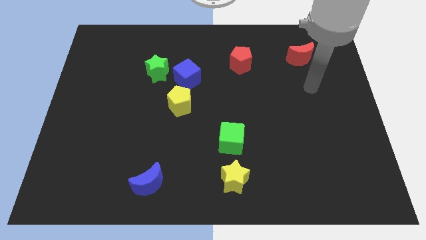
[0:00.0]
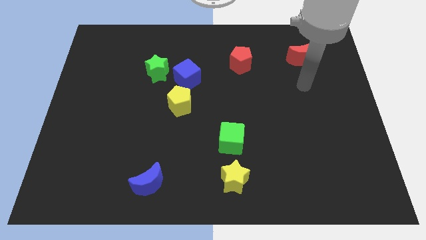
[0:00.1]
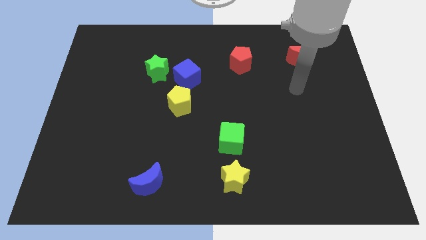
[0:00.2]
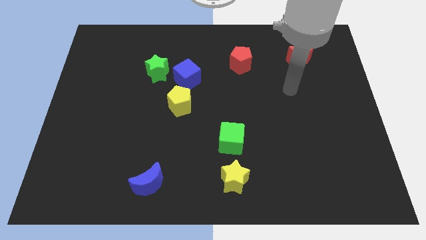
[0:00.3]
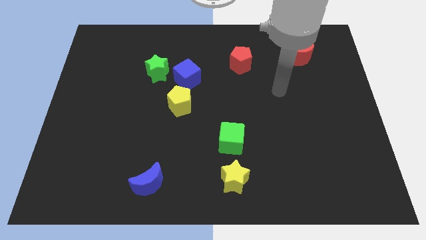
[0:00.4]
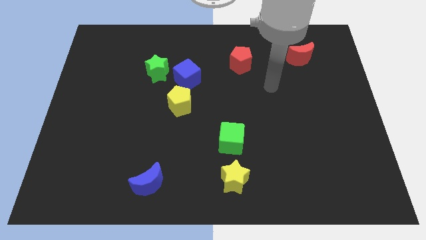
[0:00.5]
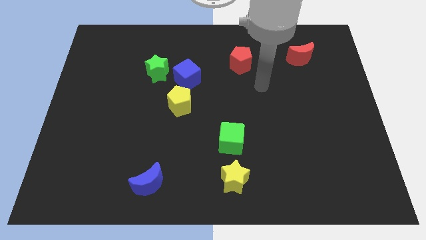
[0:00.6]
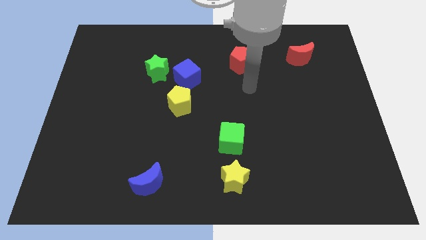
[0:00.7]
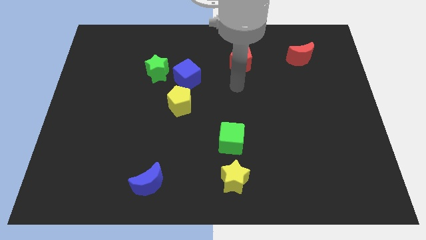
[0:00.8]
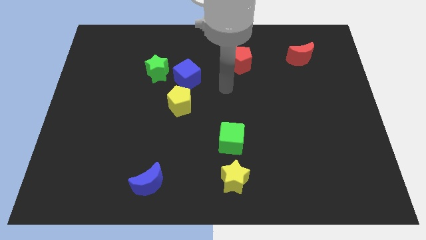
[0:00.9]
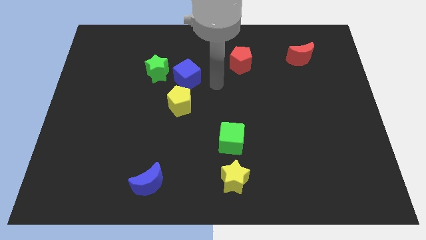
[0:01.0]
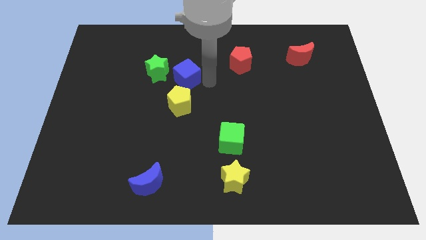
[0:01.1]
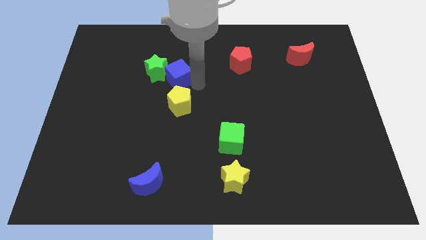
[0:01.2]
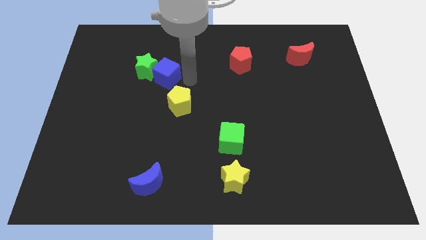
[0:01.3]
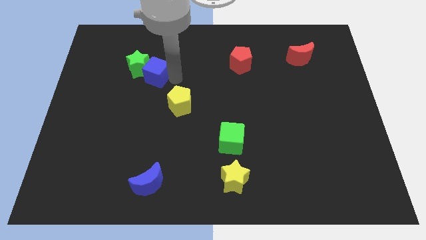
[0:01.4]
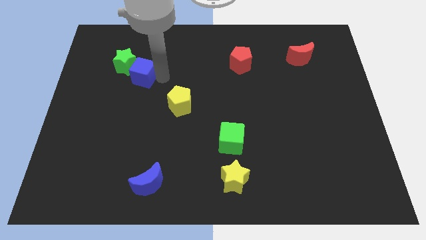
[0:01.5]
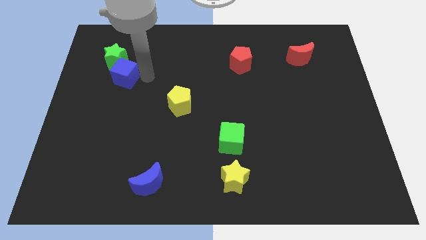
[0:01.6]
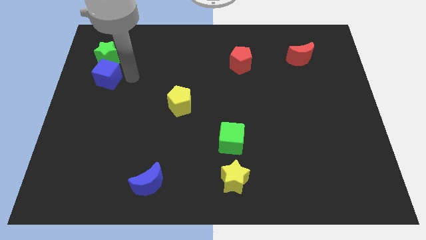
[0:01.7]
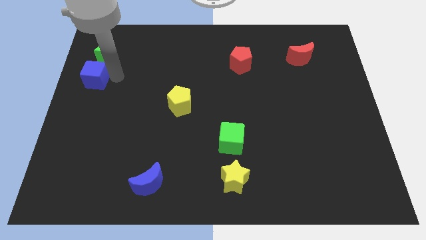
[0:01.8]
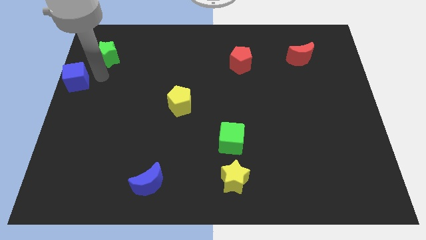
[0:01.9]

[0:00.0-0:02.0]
move the green star away from the blue cube

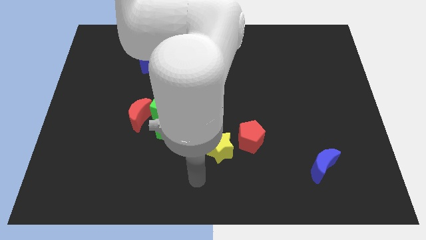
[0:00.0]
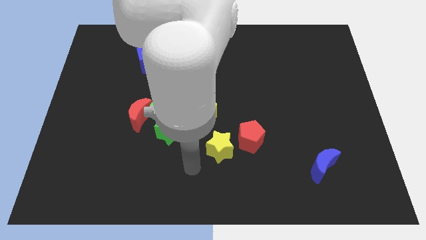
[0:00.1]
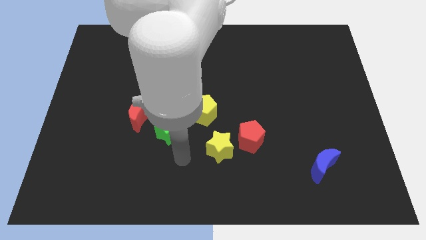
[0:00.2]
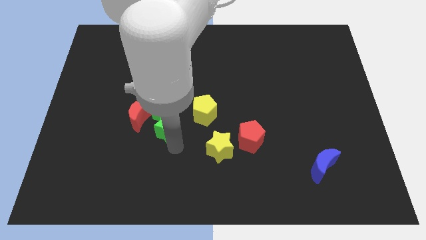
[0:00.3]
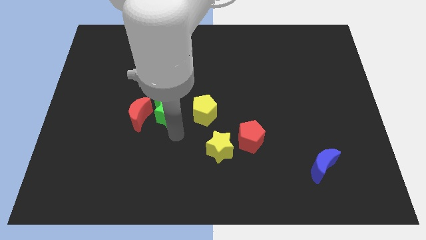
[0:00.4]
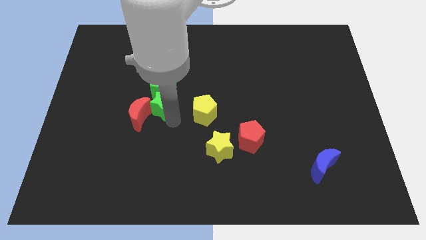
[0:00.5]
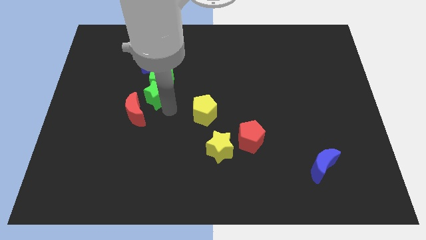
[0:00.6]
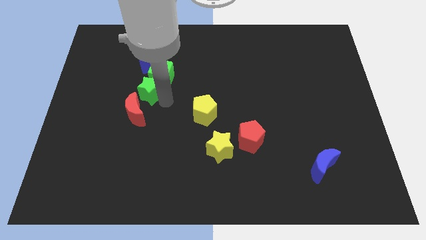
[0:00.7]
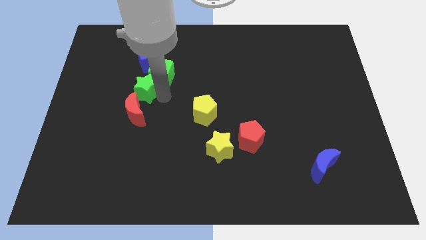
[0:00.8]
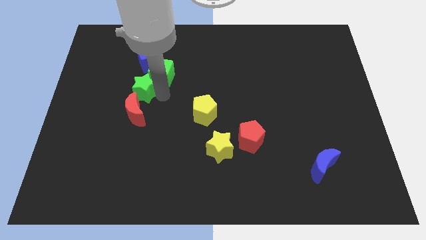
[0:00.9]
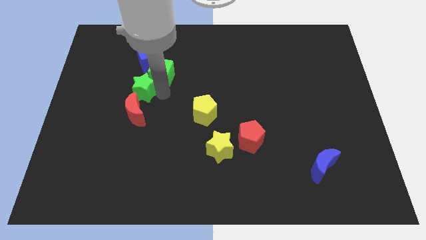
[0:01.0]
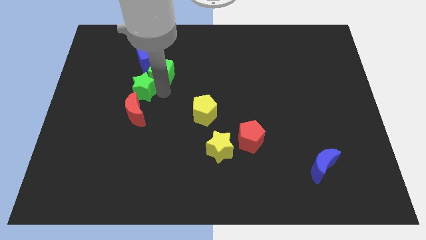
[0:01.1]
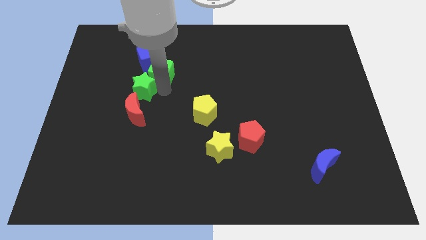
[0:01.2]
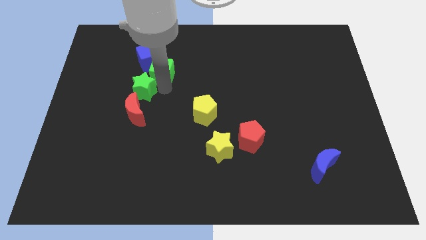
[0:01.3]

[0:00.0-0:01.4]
pull the green cube apart from the green star, red moon, and yellow pentagon

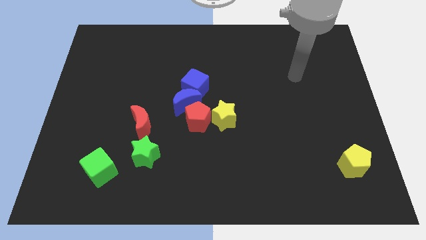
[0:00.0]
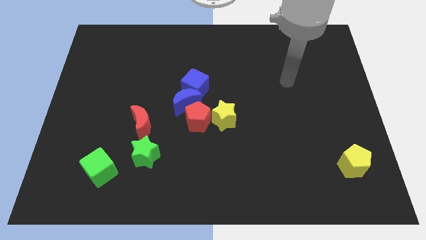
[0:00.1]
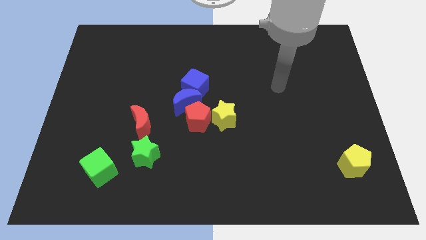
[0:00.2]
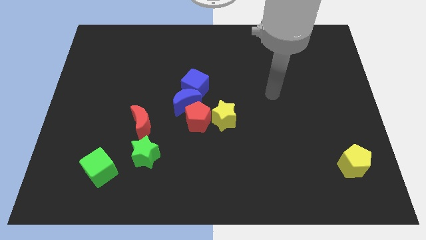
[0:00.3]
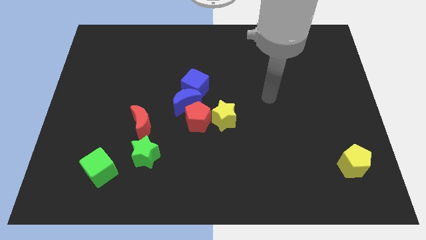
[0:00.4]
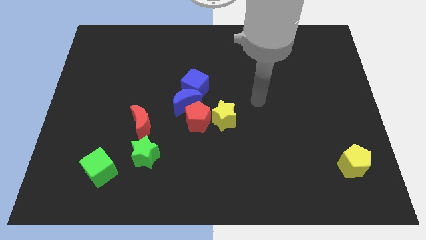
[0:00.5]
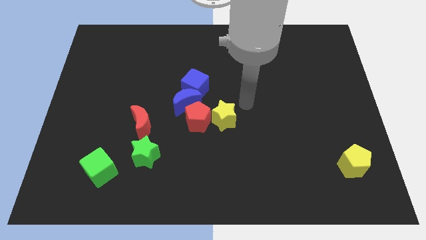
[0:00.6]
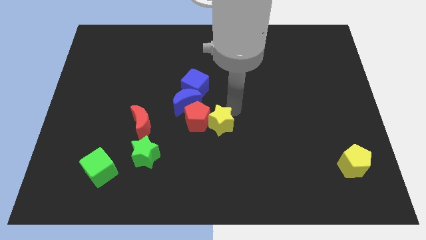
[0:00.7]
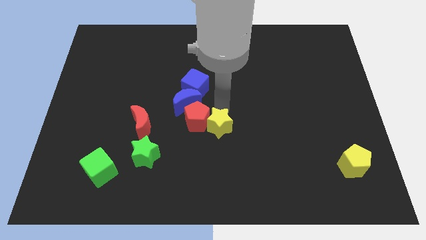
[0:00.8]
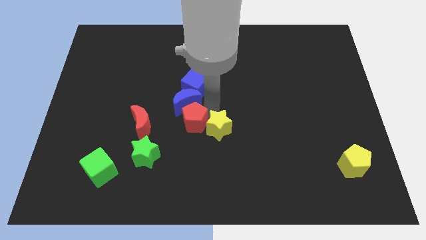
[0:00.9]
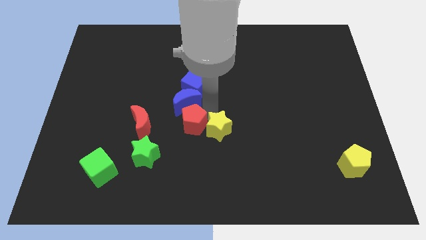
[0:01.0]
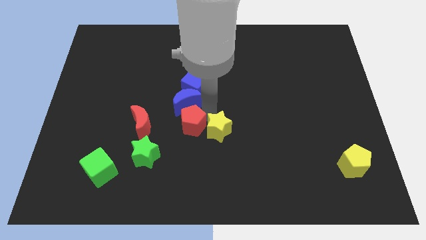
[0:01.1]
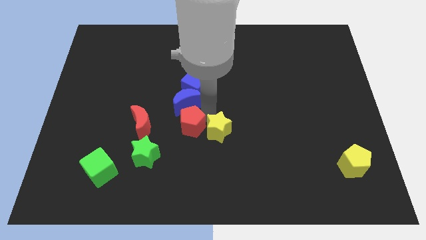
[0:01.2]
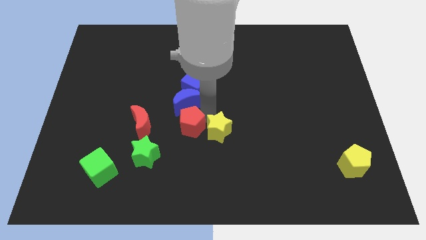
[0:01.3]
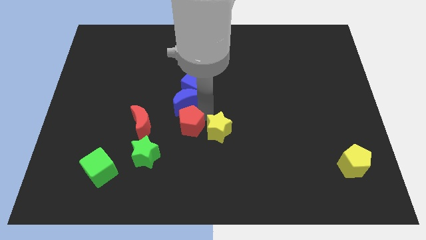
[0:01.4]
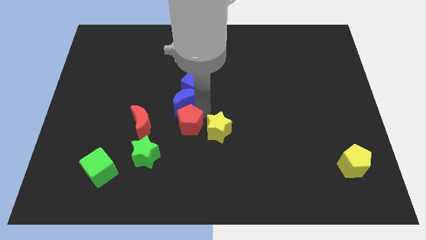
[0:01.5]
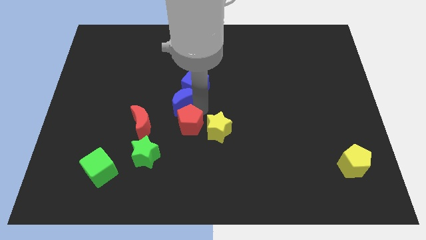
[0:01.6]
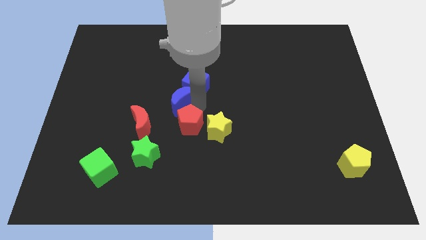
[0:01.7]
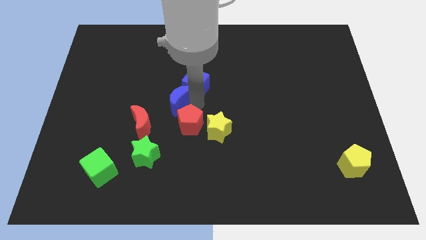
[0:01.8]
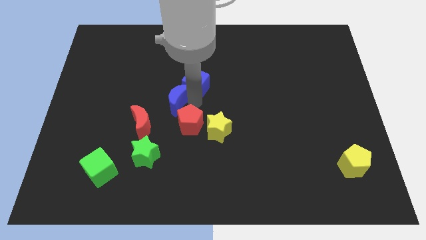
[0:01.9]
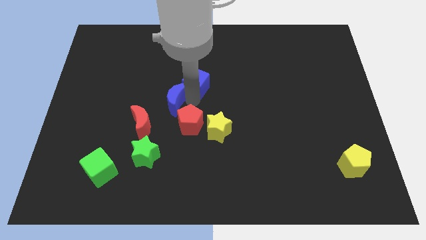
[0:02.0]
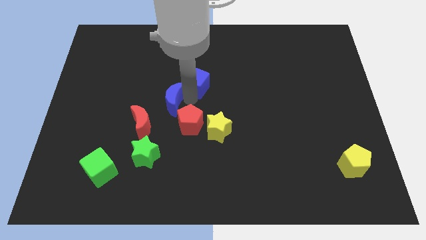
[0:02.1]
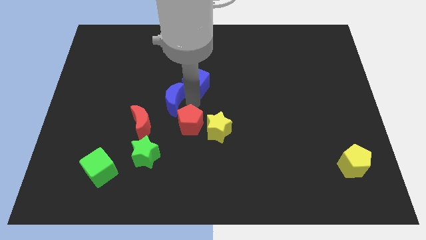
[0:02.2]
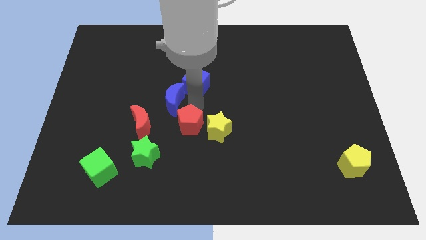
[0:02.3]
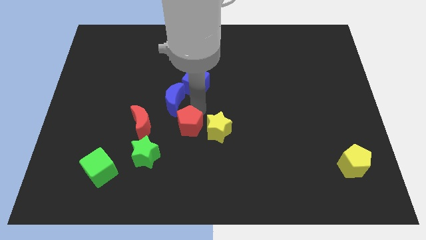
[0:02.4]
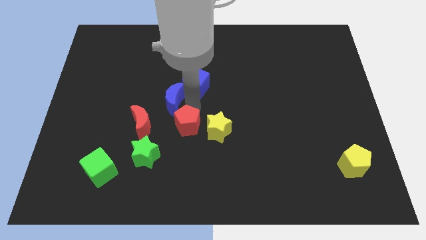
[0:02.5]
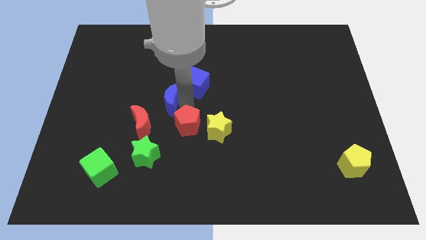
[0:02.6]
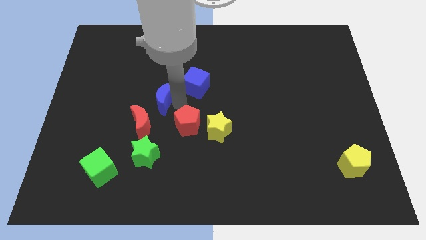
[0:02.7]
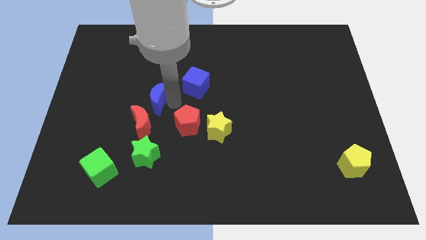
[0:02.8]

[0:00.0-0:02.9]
pull the blue moon apart from the group of blocks

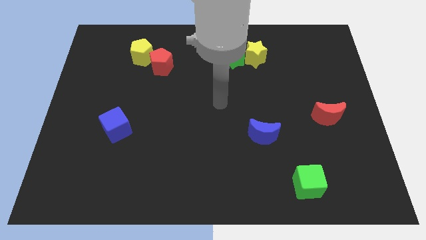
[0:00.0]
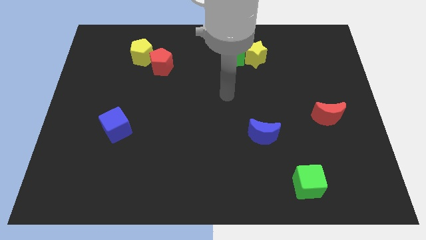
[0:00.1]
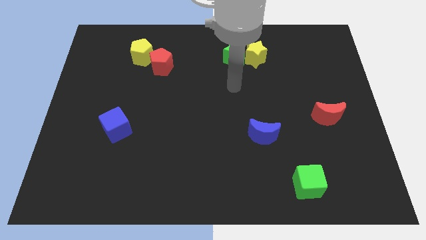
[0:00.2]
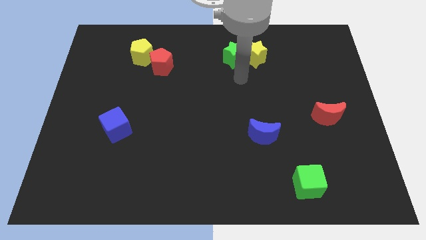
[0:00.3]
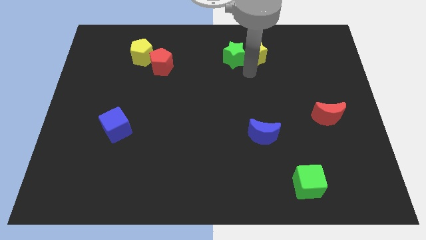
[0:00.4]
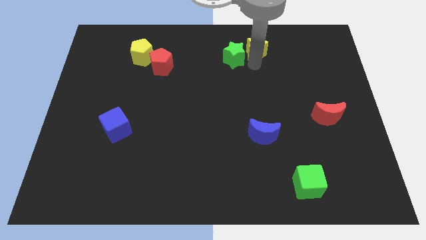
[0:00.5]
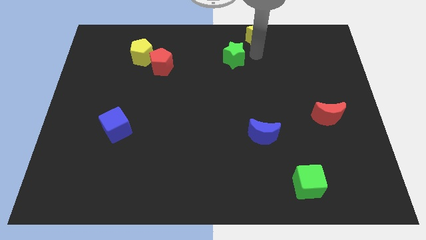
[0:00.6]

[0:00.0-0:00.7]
move the green star away from the yellow star

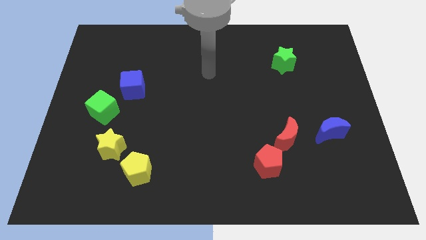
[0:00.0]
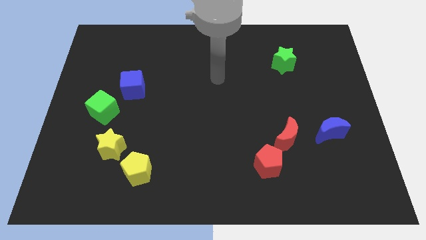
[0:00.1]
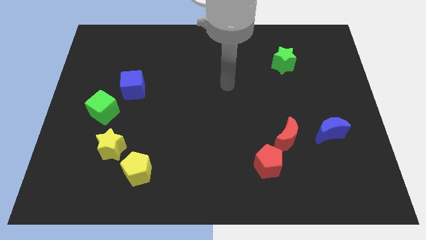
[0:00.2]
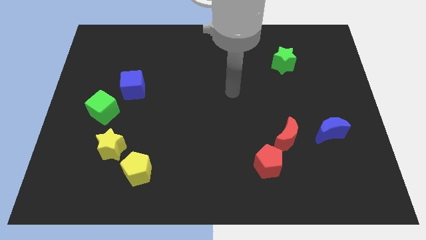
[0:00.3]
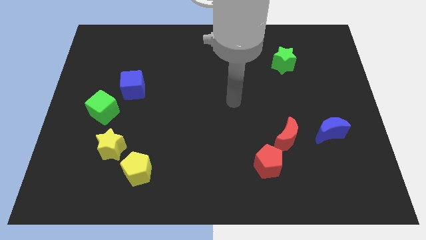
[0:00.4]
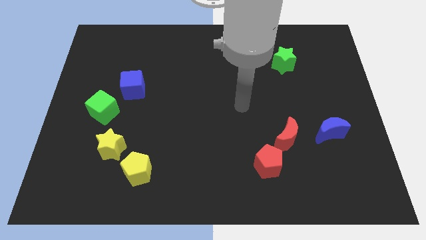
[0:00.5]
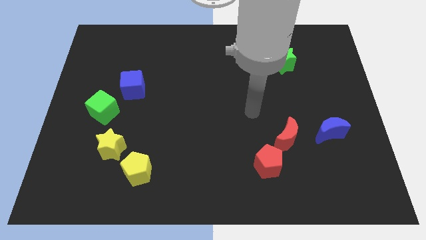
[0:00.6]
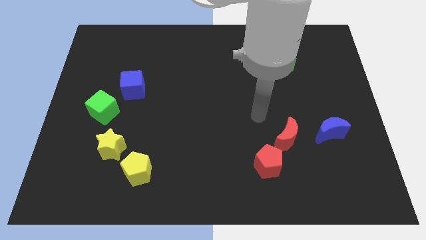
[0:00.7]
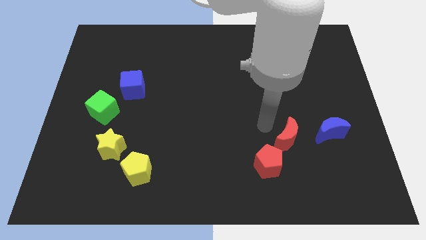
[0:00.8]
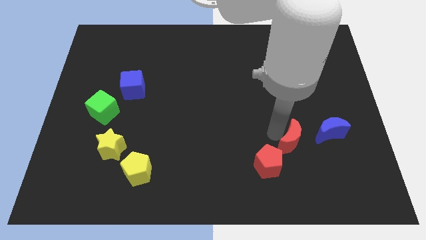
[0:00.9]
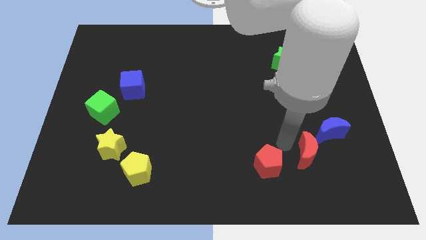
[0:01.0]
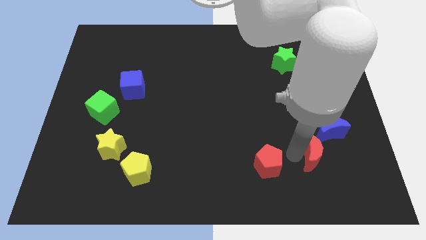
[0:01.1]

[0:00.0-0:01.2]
pull the red pentagon apart from the red moon

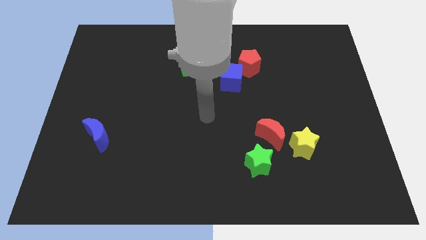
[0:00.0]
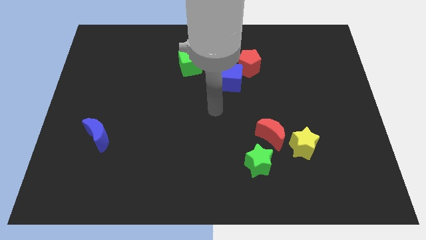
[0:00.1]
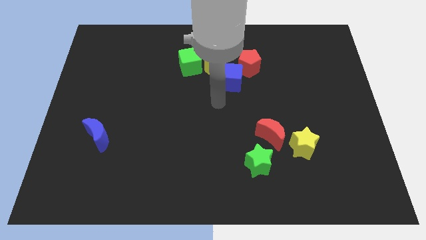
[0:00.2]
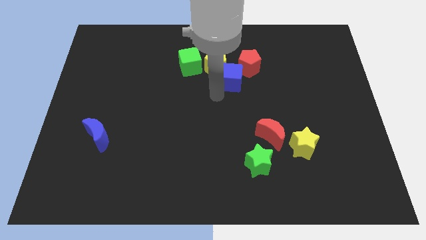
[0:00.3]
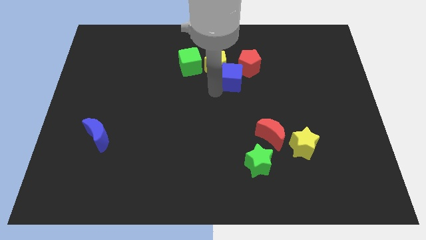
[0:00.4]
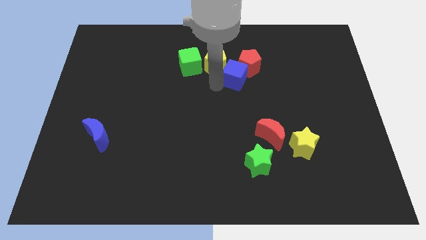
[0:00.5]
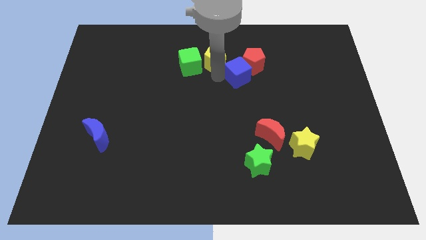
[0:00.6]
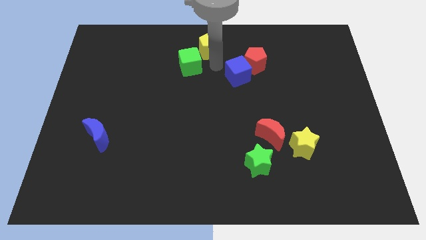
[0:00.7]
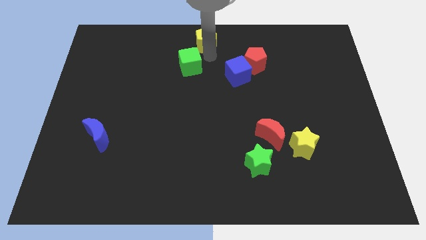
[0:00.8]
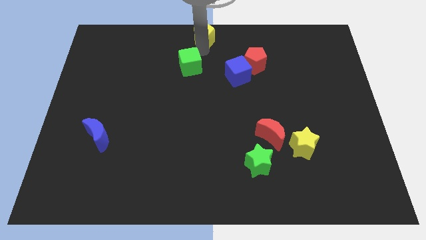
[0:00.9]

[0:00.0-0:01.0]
pull the green cube apart from the yellow pentagon
